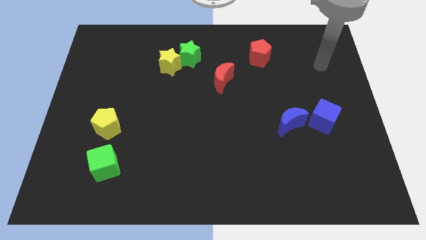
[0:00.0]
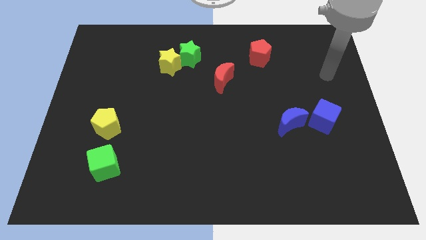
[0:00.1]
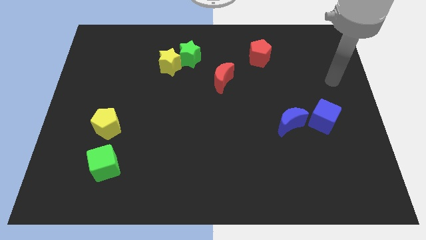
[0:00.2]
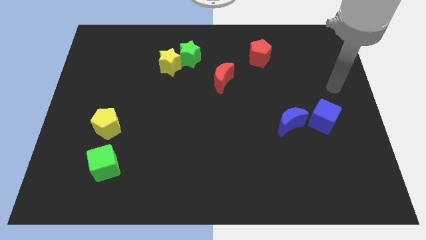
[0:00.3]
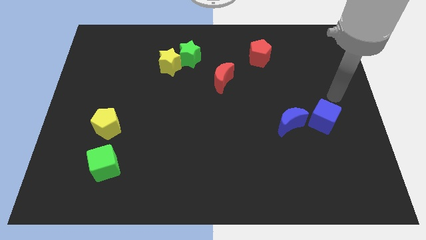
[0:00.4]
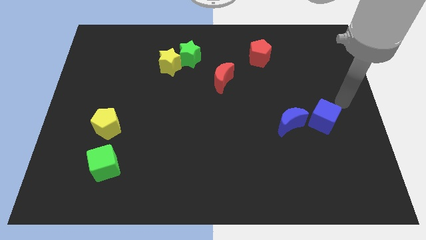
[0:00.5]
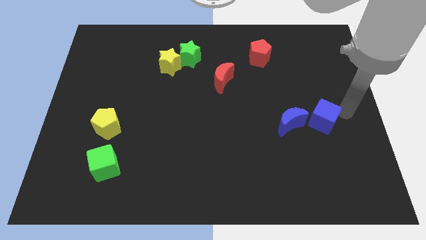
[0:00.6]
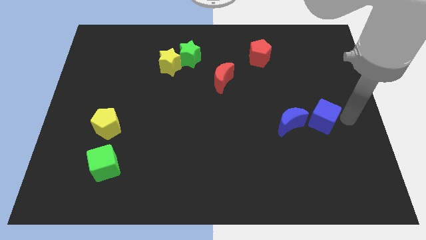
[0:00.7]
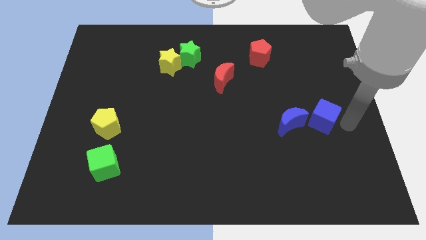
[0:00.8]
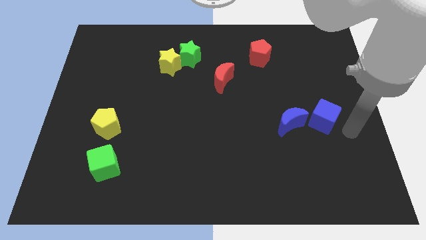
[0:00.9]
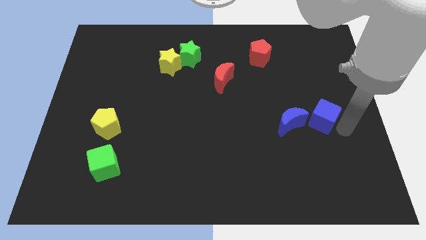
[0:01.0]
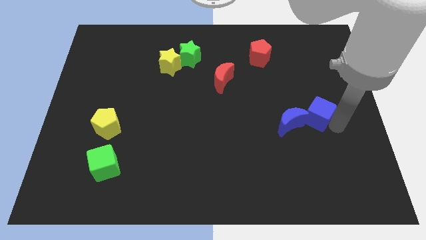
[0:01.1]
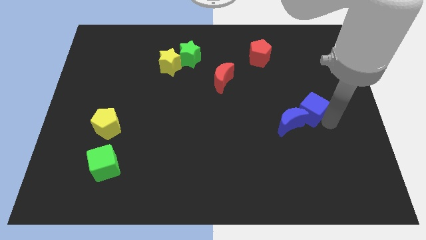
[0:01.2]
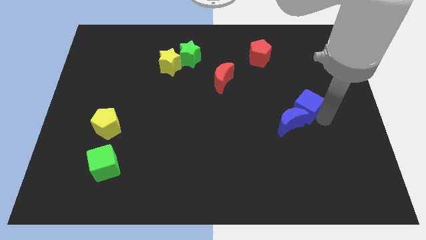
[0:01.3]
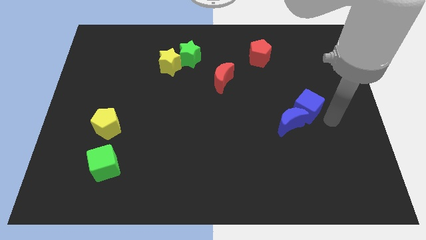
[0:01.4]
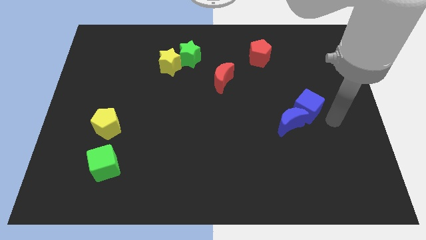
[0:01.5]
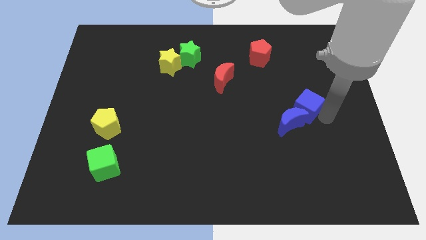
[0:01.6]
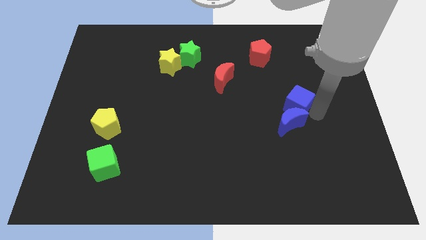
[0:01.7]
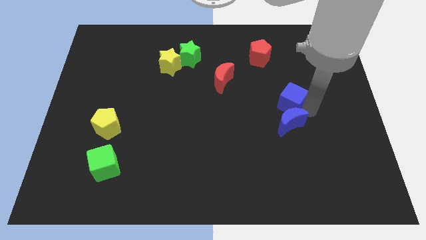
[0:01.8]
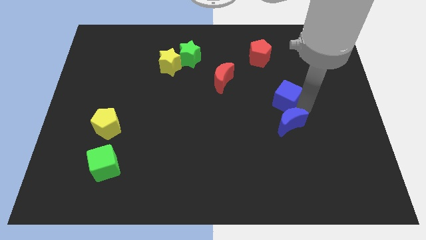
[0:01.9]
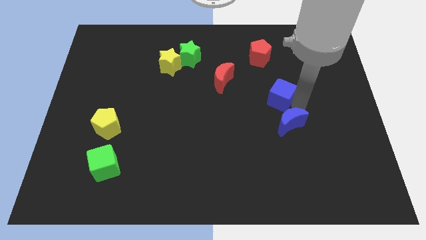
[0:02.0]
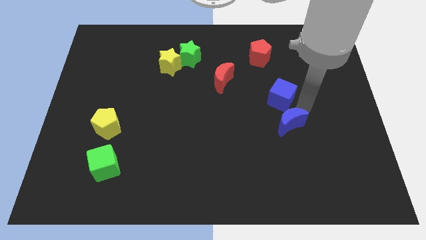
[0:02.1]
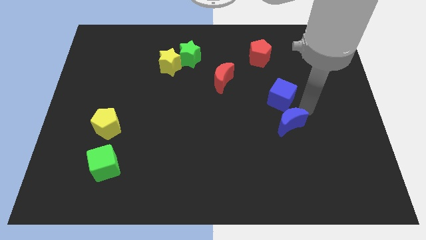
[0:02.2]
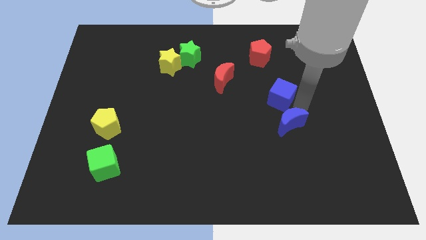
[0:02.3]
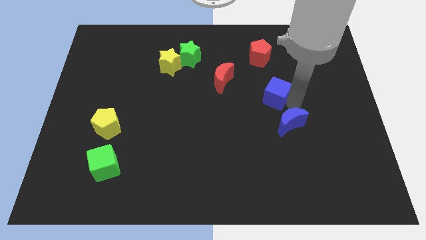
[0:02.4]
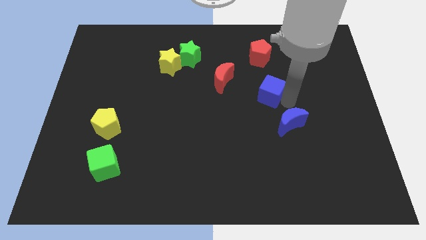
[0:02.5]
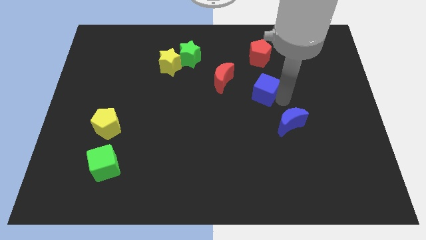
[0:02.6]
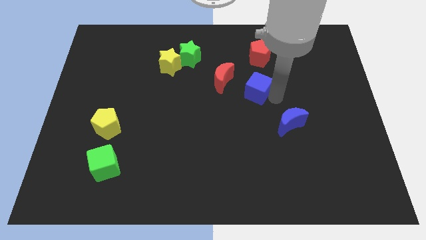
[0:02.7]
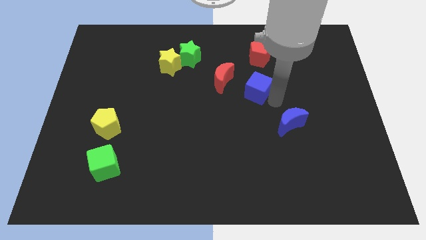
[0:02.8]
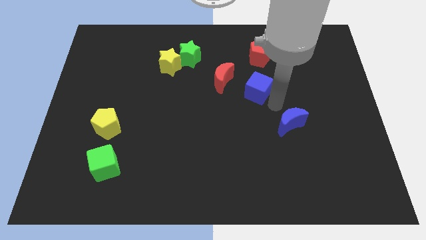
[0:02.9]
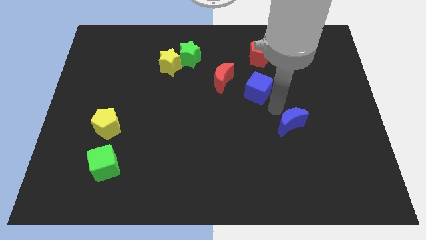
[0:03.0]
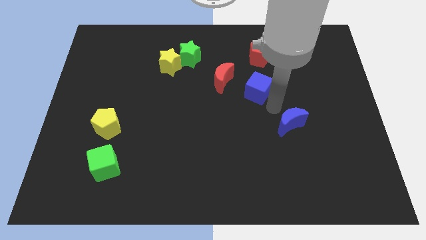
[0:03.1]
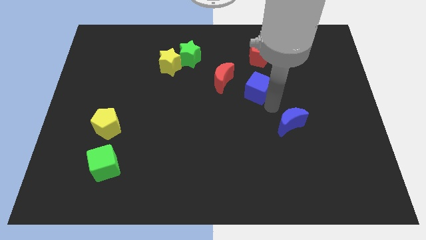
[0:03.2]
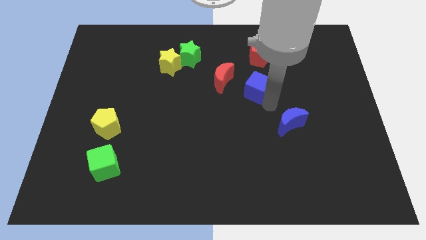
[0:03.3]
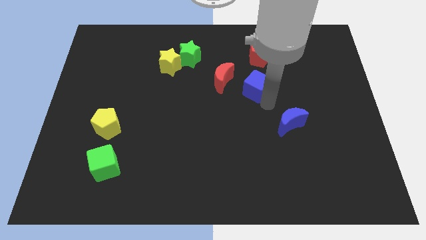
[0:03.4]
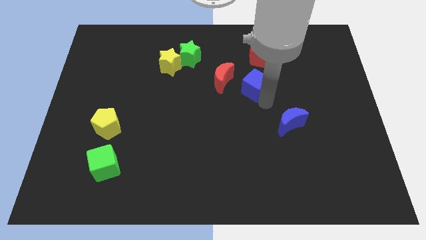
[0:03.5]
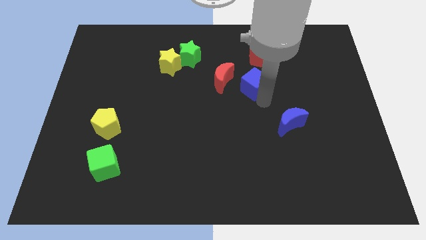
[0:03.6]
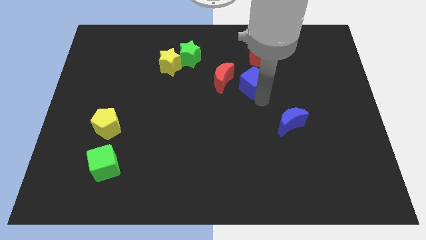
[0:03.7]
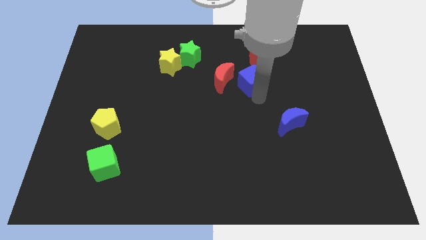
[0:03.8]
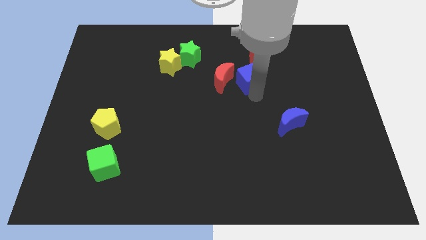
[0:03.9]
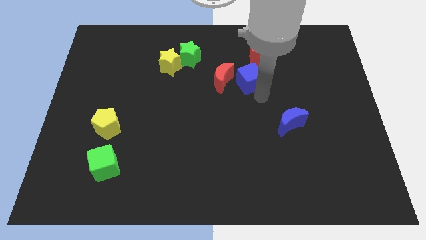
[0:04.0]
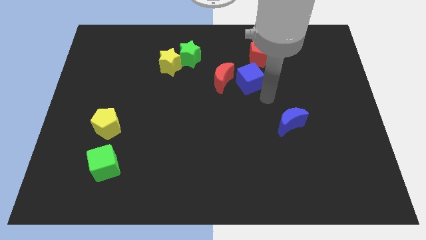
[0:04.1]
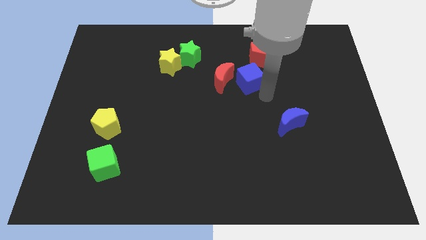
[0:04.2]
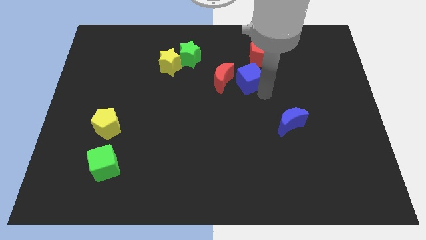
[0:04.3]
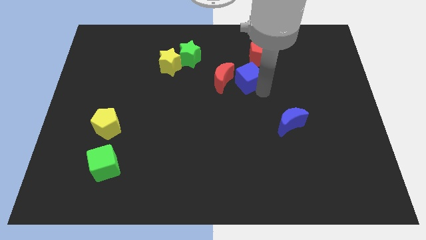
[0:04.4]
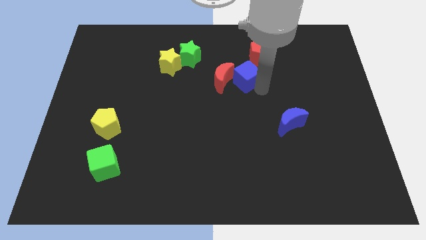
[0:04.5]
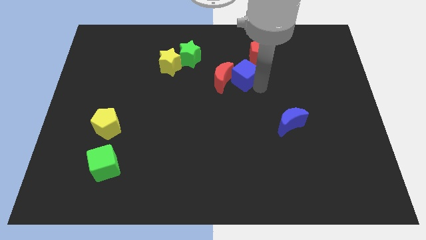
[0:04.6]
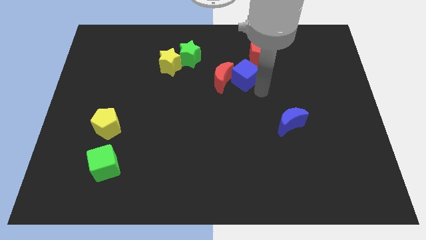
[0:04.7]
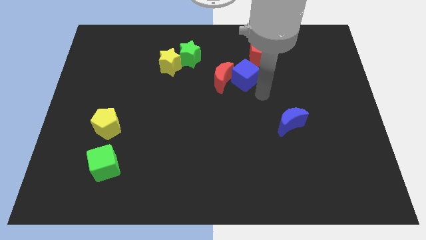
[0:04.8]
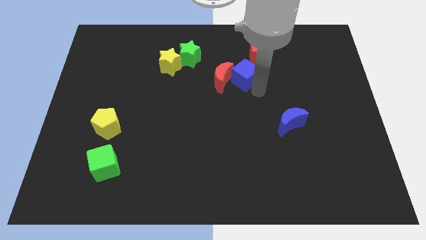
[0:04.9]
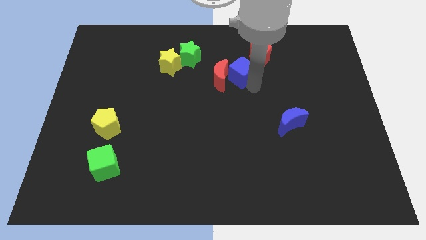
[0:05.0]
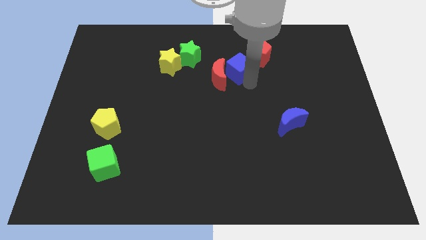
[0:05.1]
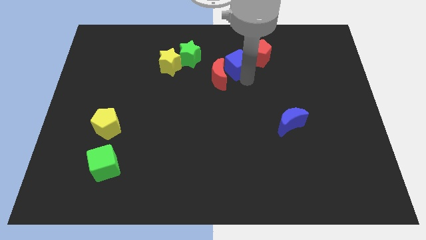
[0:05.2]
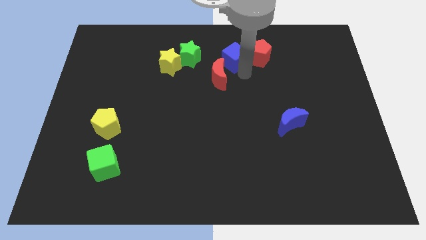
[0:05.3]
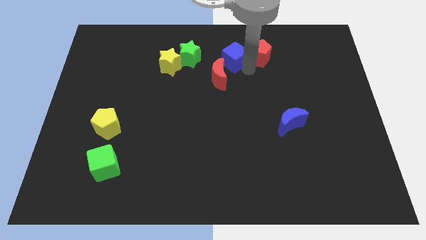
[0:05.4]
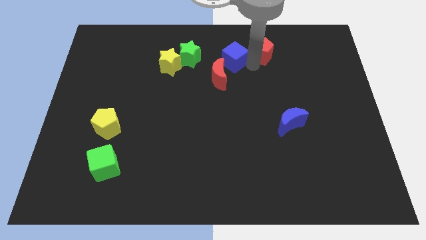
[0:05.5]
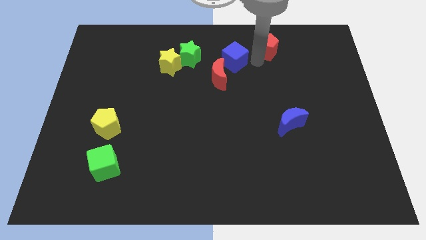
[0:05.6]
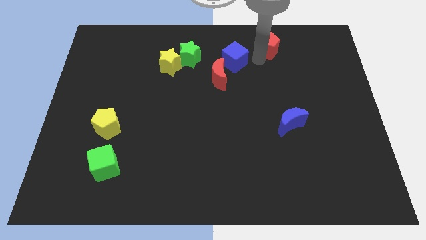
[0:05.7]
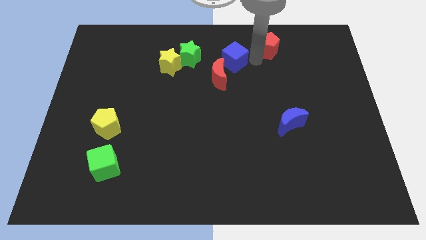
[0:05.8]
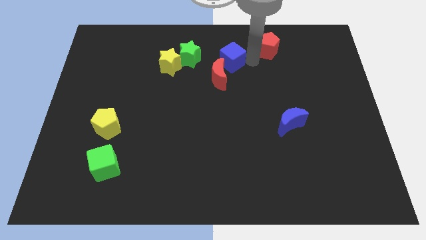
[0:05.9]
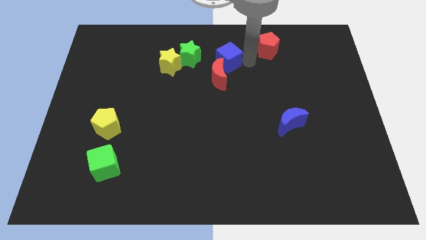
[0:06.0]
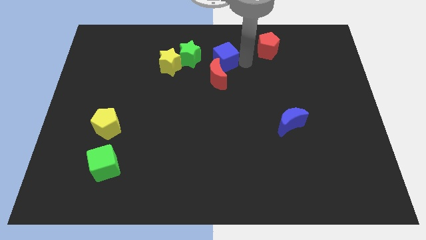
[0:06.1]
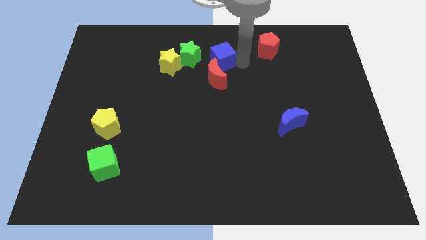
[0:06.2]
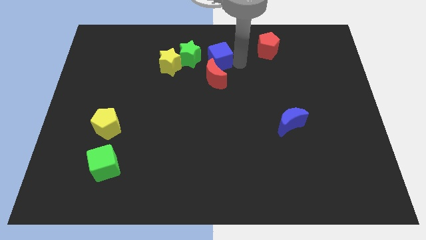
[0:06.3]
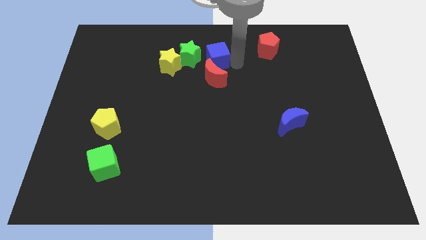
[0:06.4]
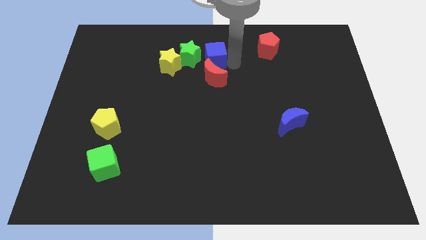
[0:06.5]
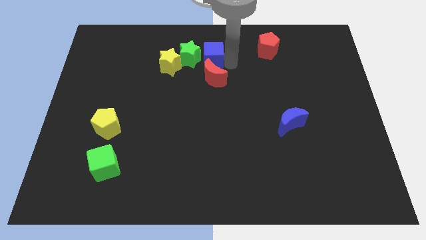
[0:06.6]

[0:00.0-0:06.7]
push the blue cube to the top left of the red moon

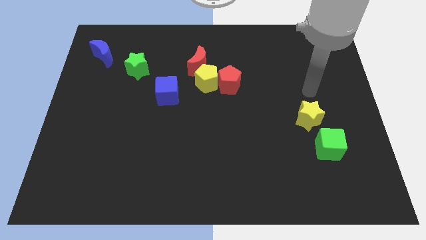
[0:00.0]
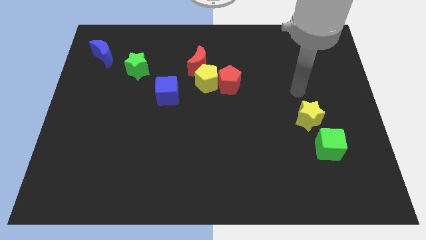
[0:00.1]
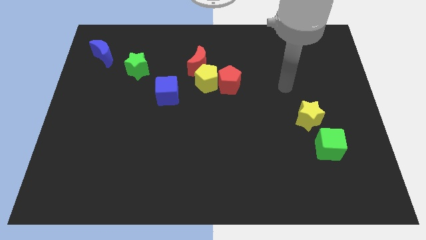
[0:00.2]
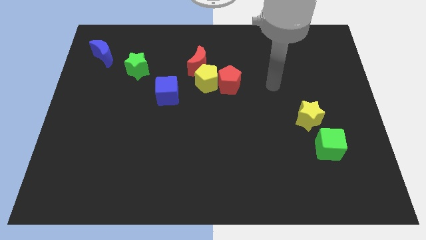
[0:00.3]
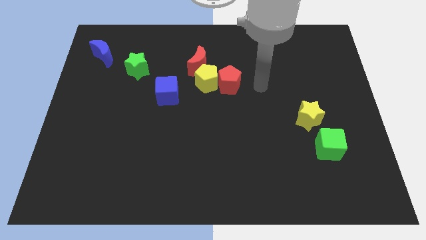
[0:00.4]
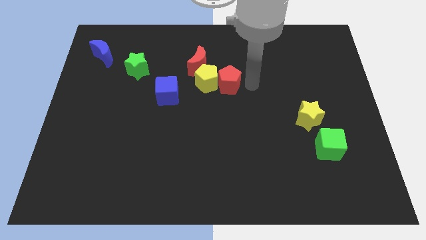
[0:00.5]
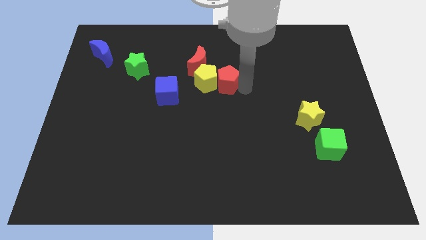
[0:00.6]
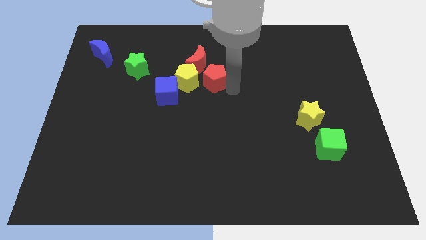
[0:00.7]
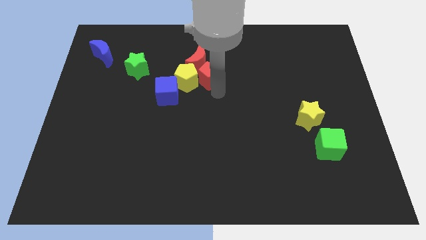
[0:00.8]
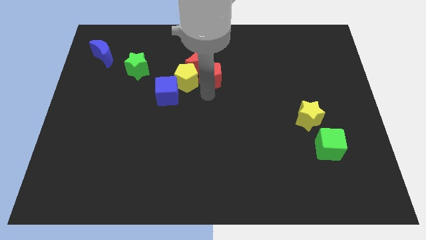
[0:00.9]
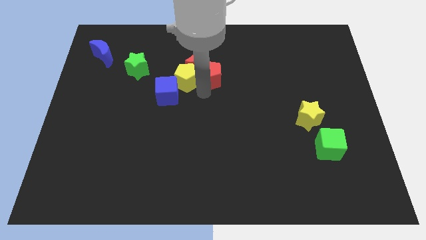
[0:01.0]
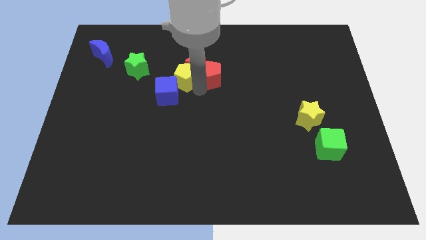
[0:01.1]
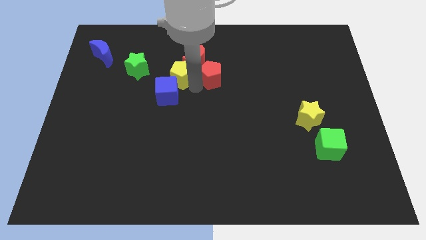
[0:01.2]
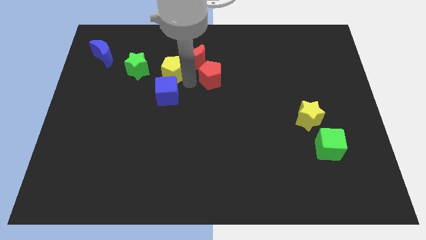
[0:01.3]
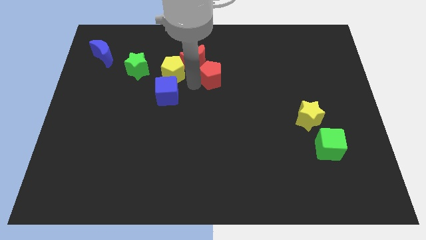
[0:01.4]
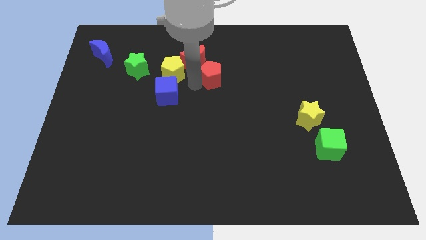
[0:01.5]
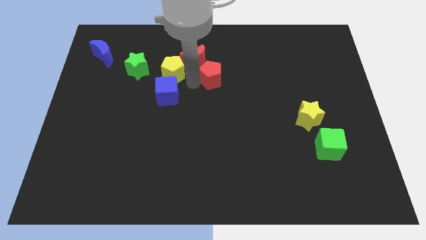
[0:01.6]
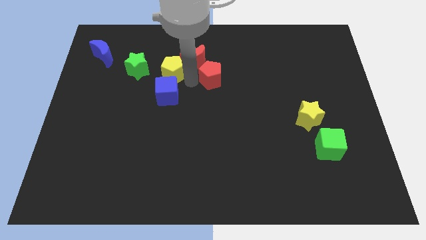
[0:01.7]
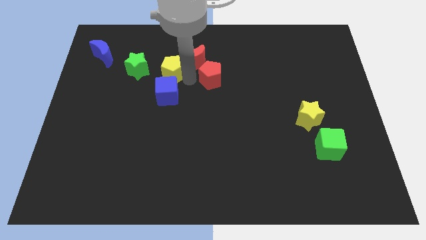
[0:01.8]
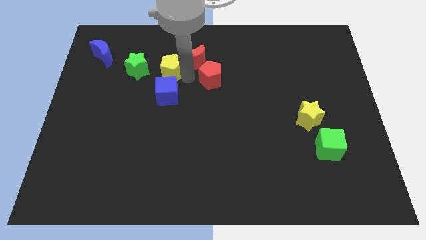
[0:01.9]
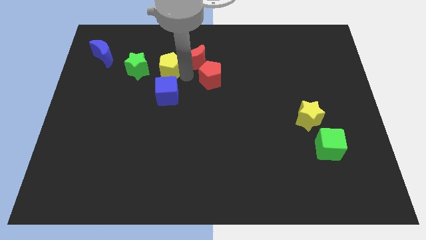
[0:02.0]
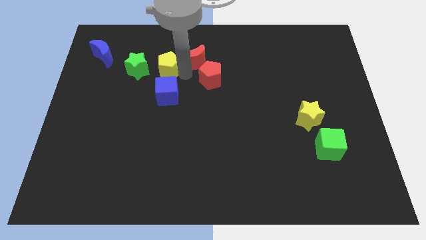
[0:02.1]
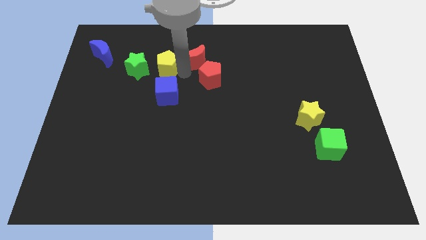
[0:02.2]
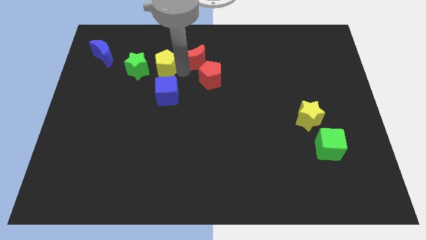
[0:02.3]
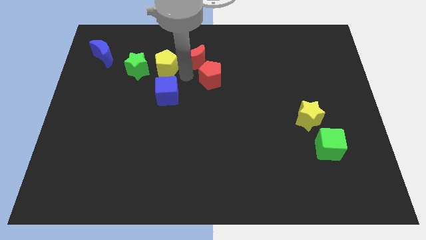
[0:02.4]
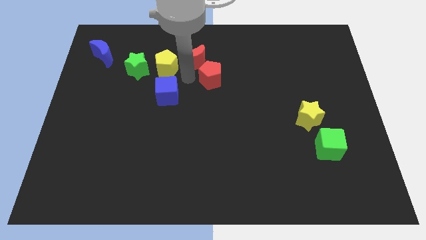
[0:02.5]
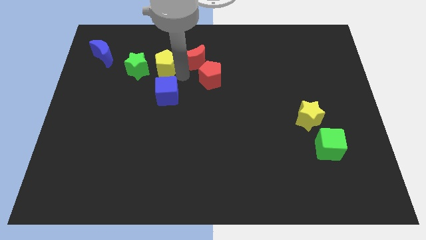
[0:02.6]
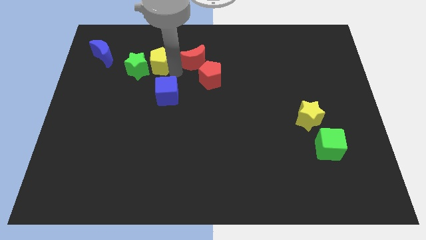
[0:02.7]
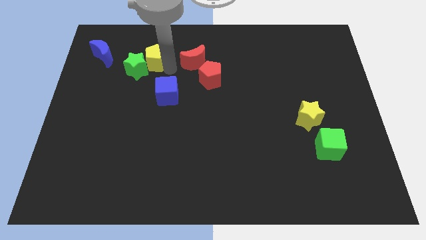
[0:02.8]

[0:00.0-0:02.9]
slide the yellow pentagon to the right of the blue moon
